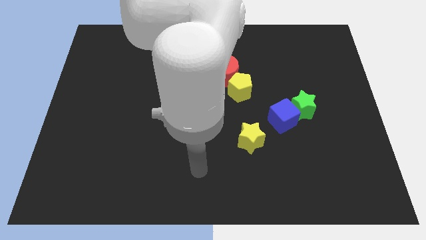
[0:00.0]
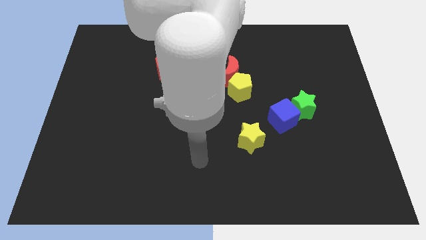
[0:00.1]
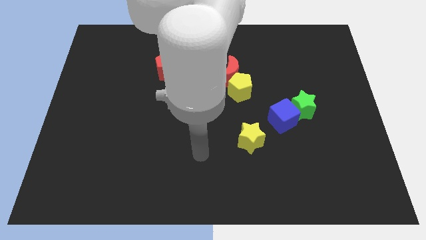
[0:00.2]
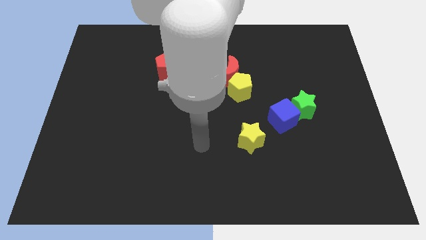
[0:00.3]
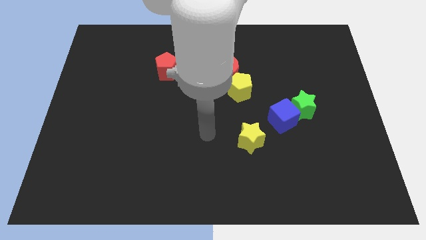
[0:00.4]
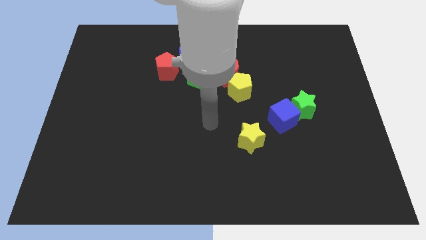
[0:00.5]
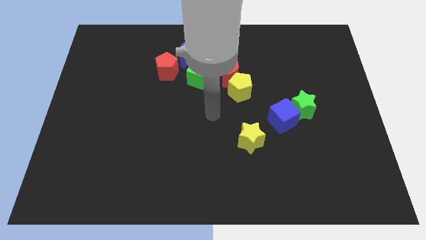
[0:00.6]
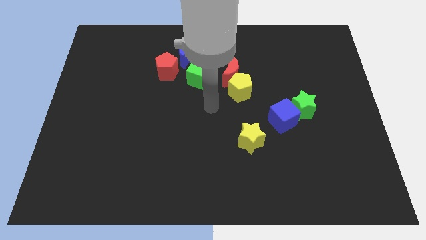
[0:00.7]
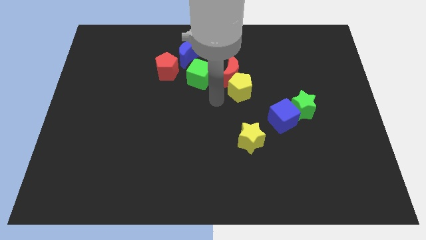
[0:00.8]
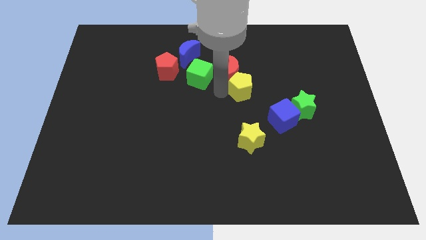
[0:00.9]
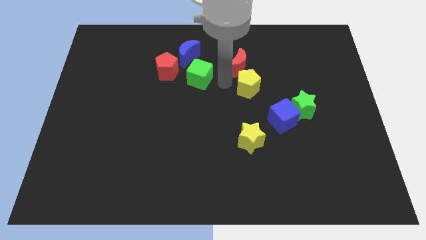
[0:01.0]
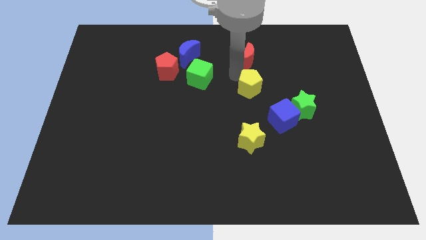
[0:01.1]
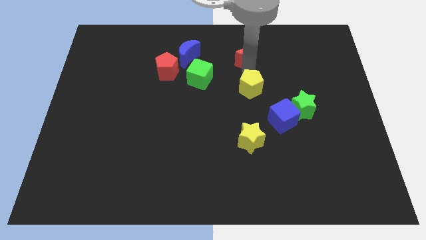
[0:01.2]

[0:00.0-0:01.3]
pull the yellow pentagon apart from the red moon

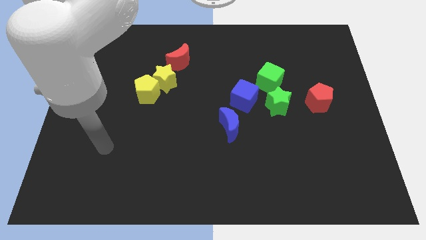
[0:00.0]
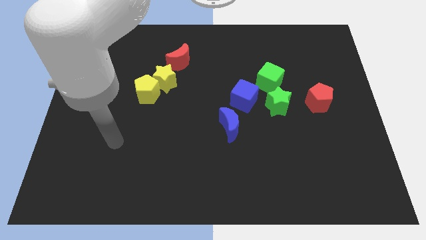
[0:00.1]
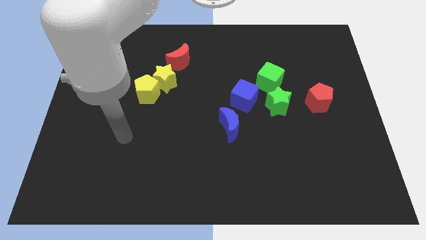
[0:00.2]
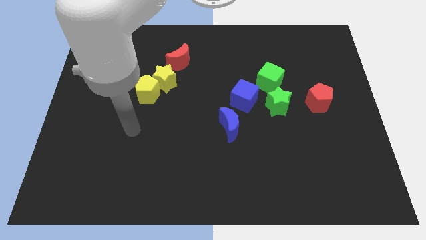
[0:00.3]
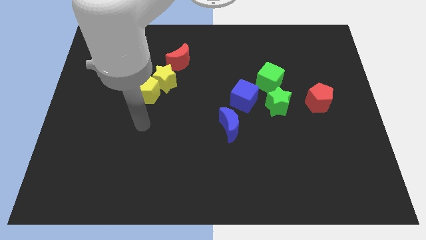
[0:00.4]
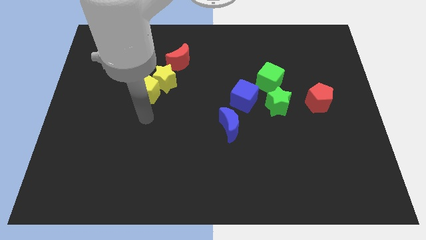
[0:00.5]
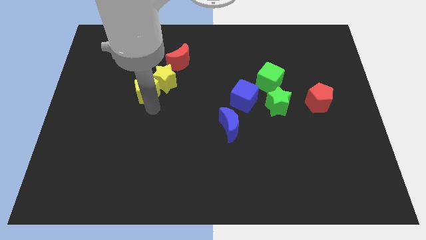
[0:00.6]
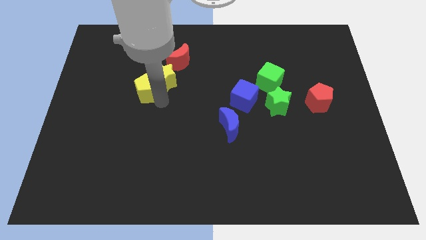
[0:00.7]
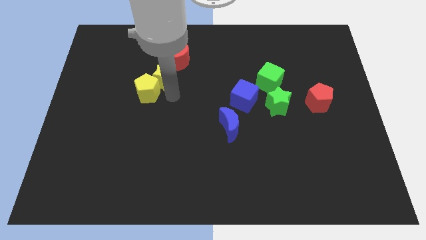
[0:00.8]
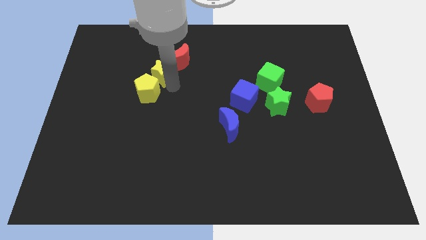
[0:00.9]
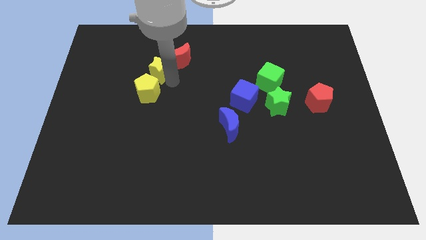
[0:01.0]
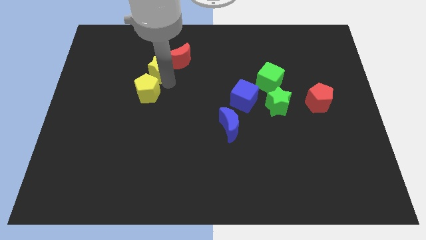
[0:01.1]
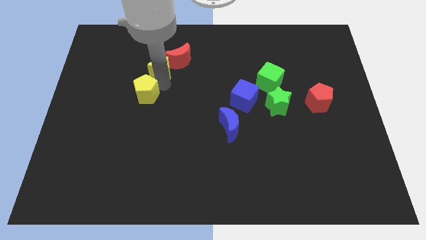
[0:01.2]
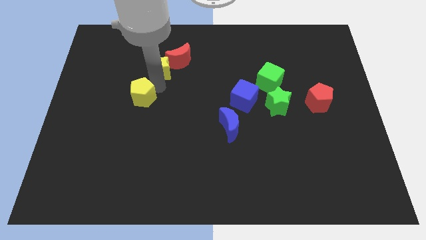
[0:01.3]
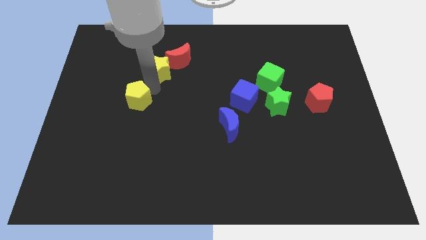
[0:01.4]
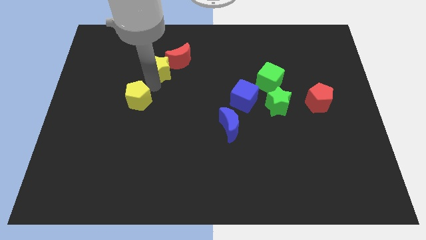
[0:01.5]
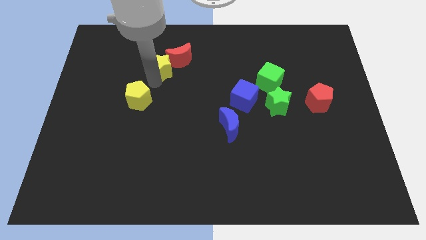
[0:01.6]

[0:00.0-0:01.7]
move the yellow pentagon away from the yellow star

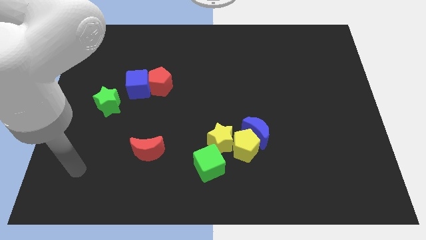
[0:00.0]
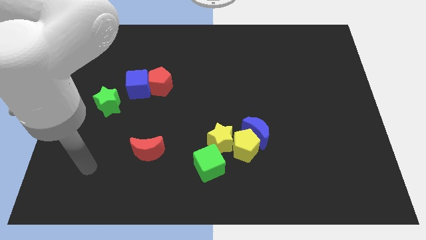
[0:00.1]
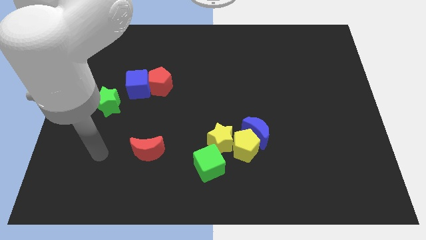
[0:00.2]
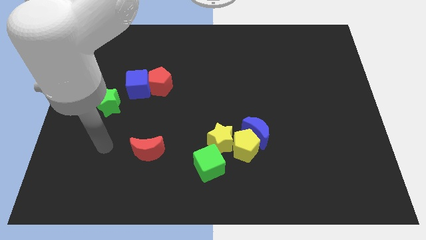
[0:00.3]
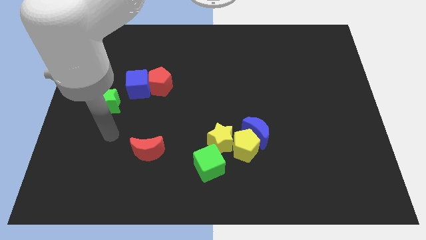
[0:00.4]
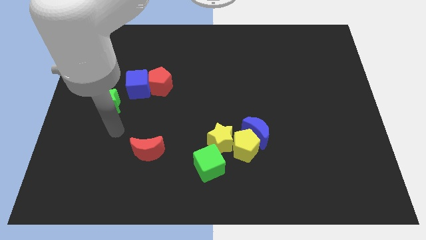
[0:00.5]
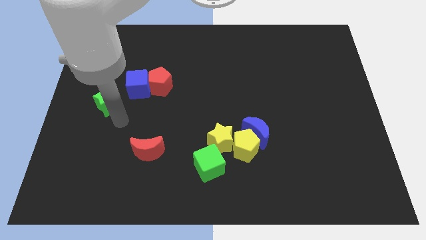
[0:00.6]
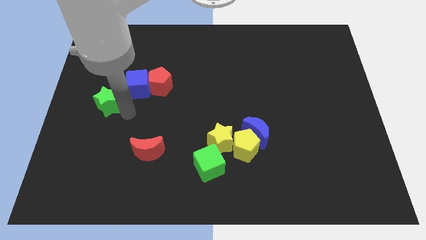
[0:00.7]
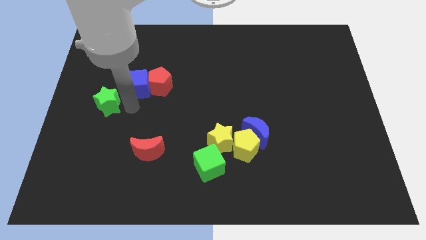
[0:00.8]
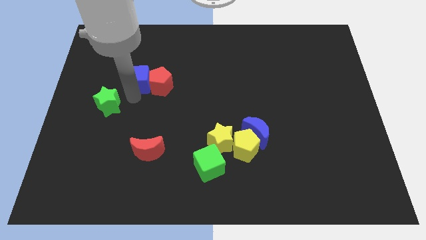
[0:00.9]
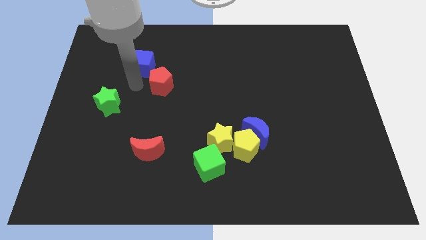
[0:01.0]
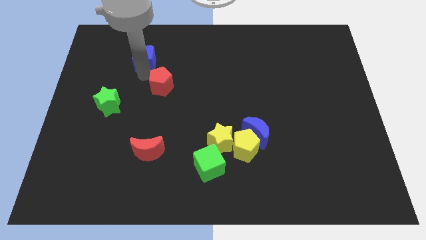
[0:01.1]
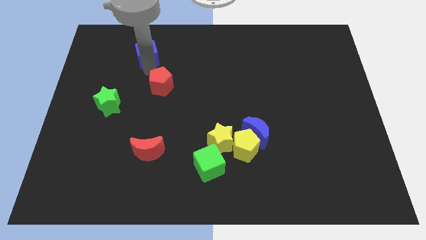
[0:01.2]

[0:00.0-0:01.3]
move the red pentagon away from the blue cube

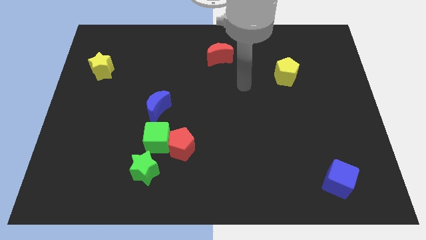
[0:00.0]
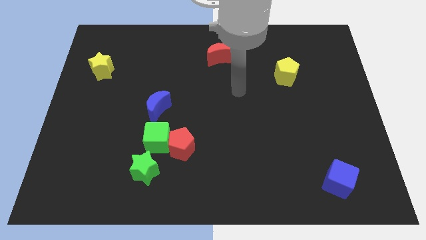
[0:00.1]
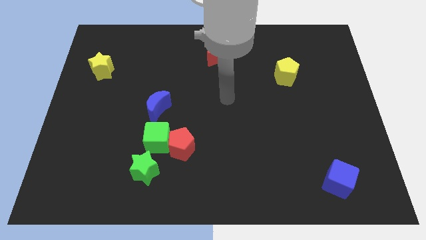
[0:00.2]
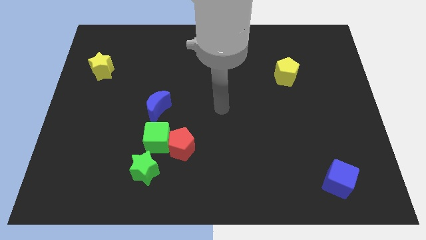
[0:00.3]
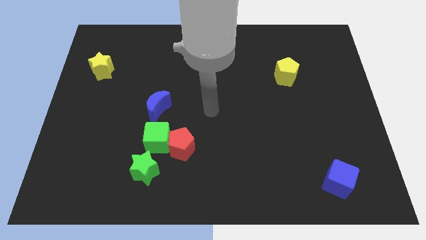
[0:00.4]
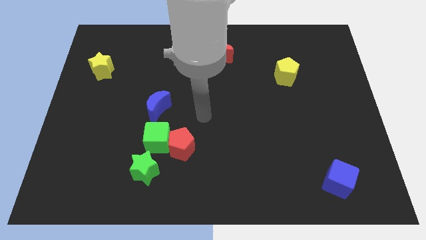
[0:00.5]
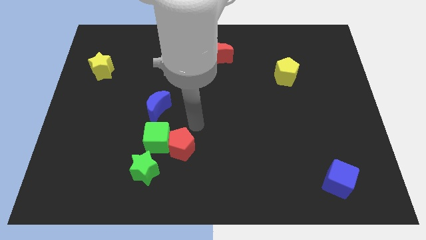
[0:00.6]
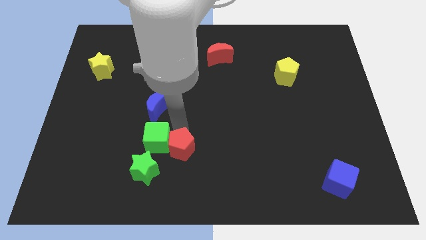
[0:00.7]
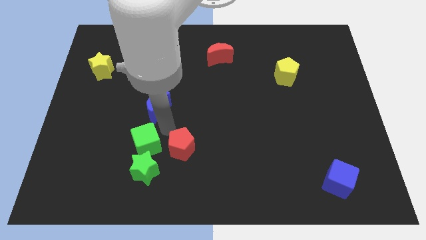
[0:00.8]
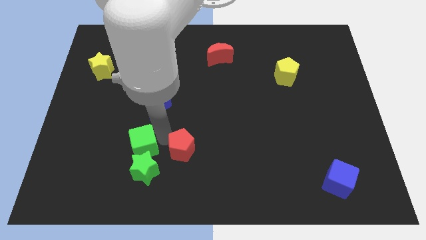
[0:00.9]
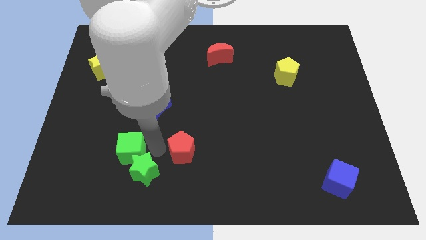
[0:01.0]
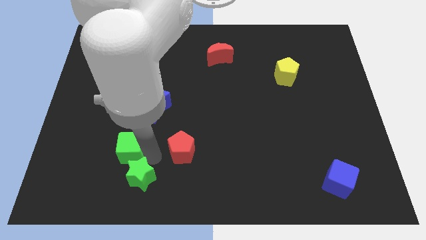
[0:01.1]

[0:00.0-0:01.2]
pull the red pentagon apart from the green cube and green star

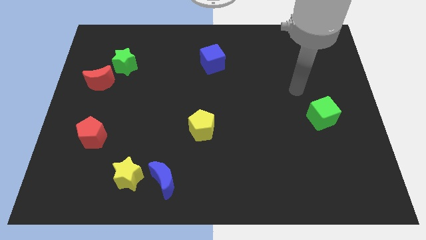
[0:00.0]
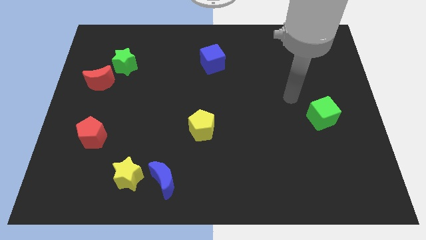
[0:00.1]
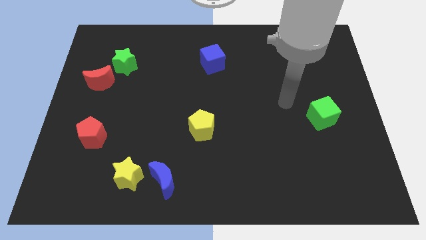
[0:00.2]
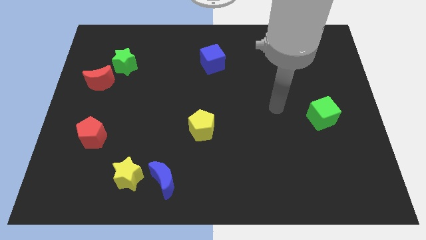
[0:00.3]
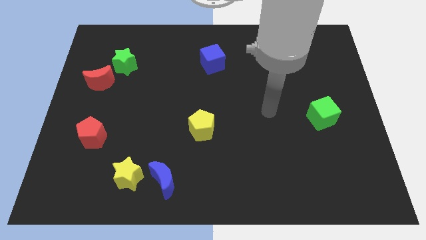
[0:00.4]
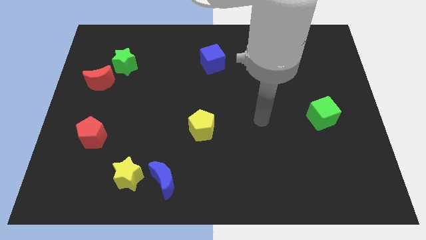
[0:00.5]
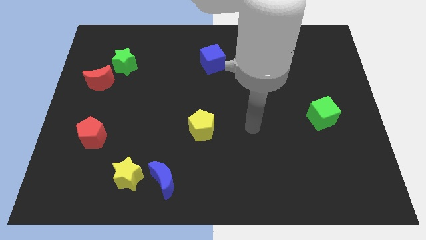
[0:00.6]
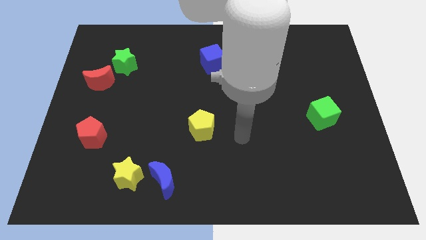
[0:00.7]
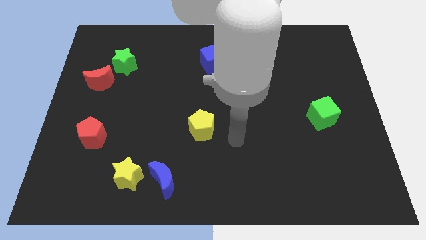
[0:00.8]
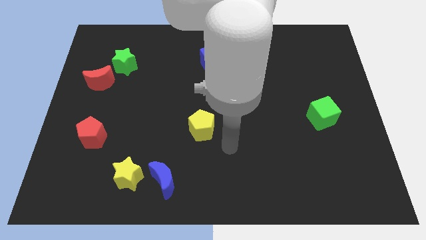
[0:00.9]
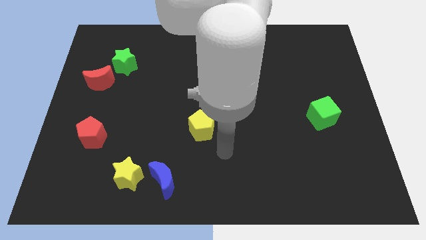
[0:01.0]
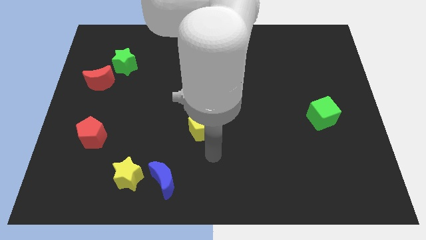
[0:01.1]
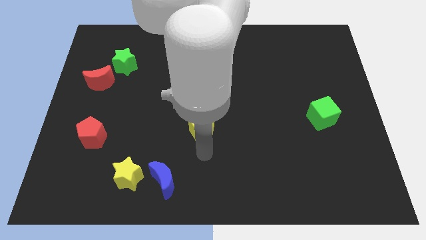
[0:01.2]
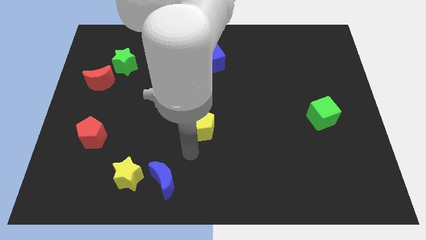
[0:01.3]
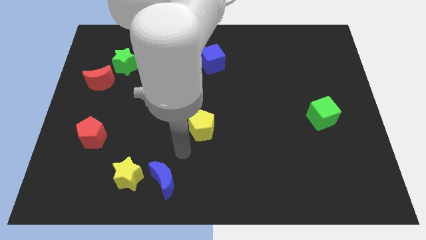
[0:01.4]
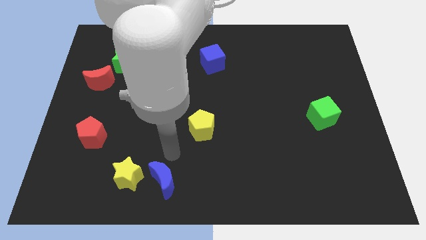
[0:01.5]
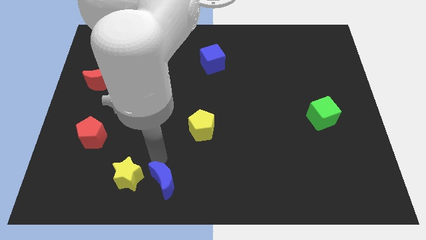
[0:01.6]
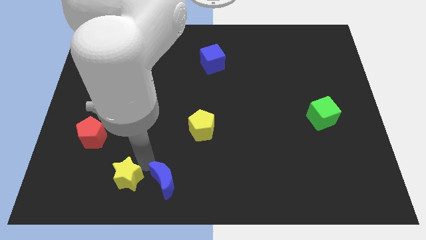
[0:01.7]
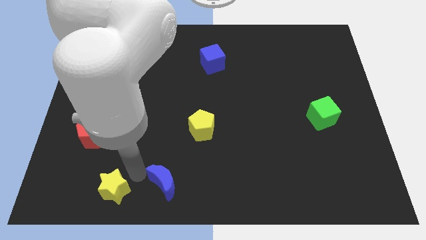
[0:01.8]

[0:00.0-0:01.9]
separate the blue moon from the yellow star

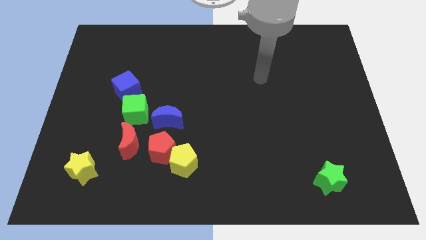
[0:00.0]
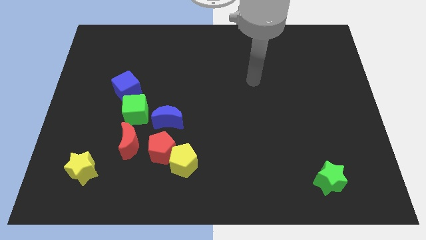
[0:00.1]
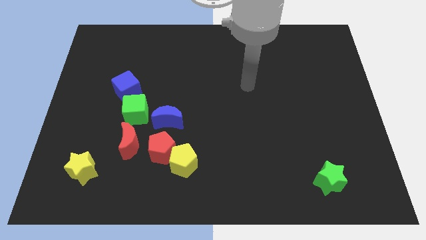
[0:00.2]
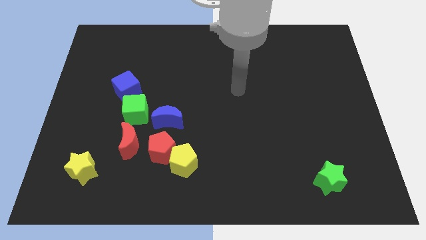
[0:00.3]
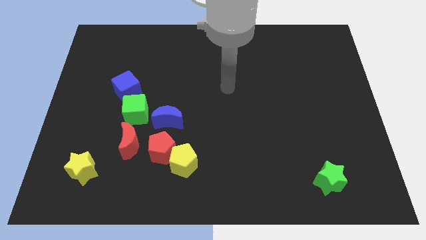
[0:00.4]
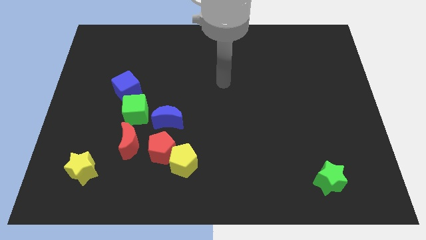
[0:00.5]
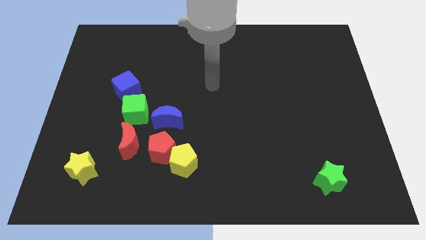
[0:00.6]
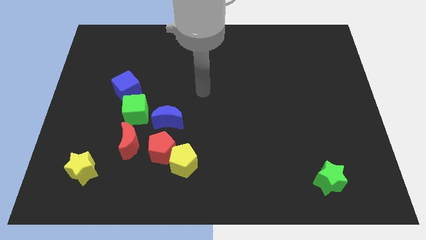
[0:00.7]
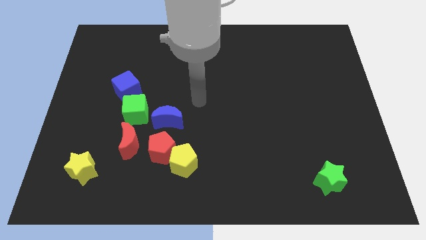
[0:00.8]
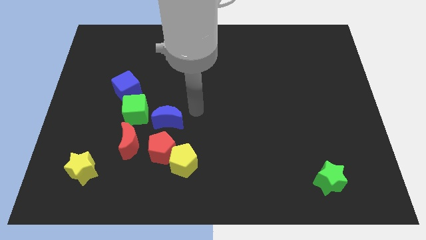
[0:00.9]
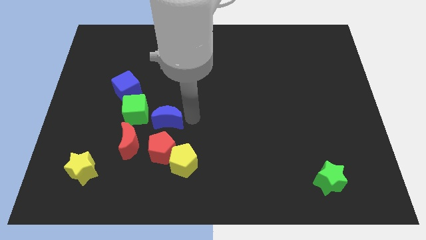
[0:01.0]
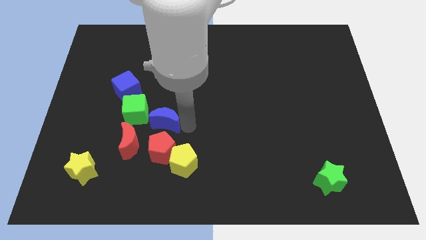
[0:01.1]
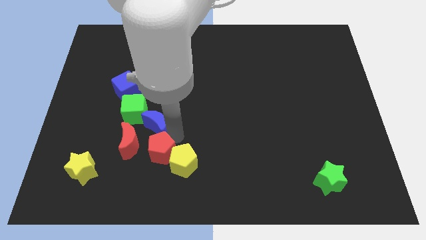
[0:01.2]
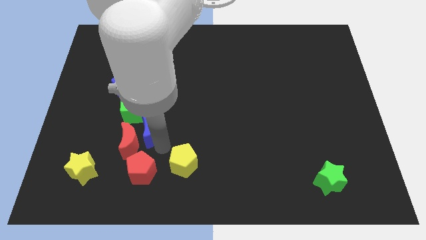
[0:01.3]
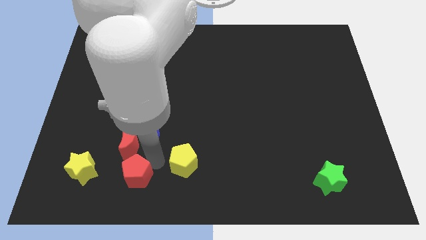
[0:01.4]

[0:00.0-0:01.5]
separate the yellow pentagon from the red pentagon

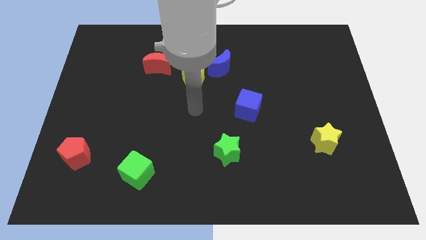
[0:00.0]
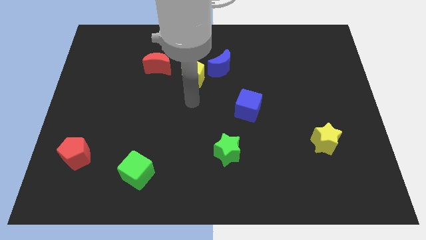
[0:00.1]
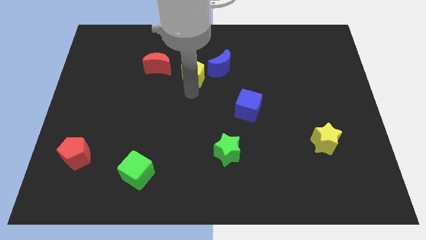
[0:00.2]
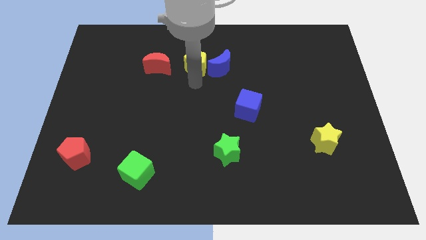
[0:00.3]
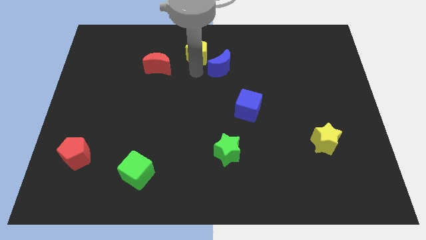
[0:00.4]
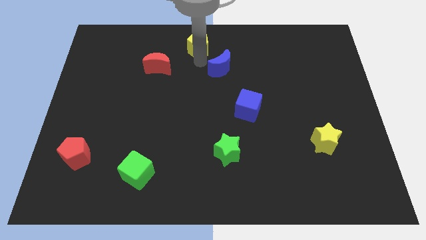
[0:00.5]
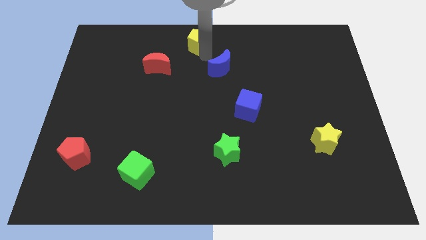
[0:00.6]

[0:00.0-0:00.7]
move the blue moon away from the yellow pentagon
